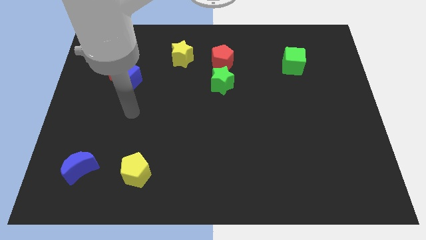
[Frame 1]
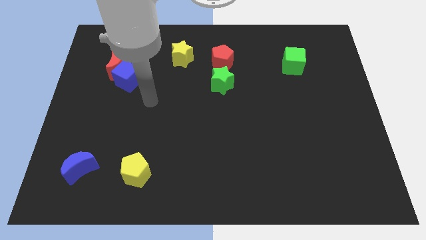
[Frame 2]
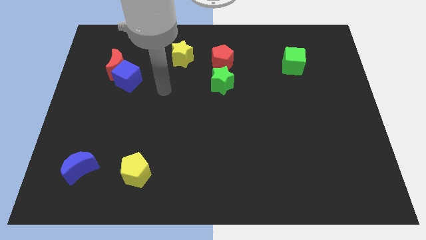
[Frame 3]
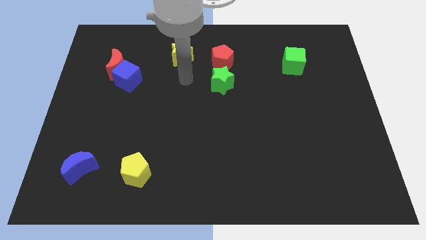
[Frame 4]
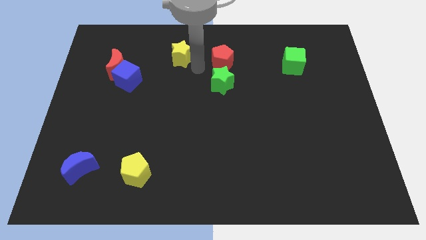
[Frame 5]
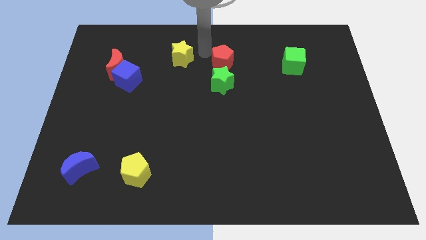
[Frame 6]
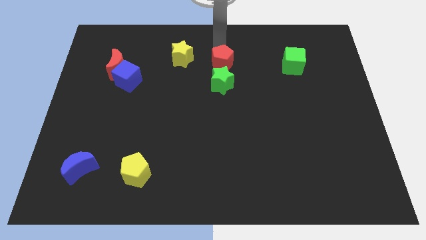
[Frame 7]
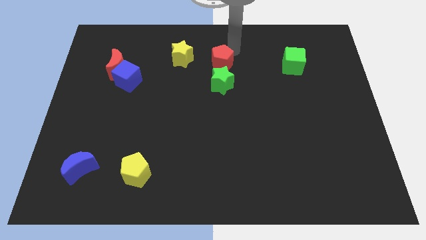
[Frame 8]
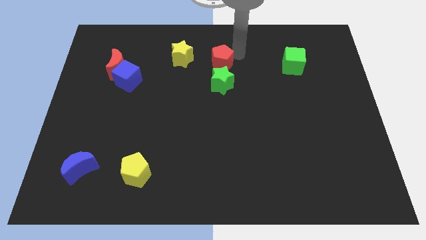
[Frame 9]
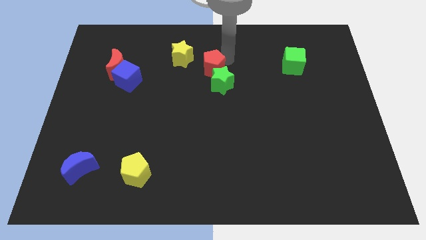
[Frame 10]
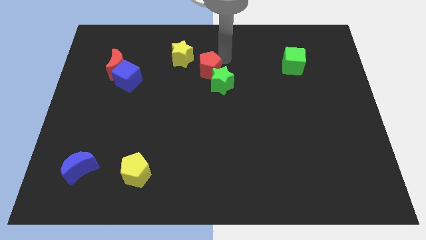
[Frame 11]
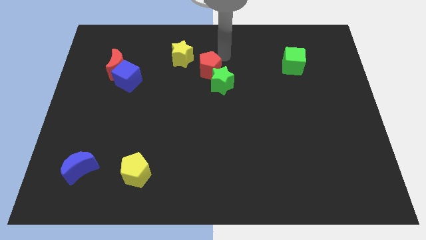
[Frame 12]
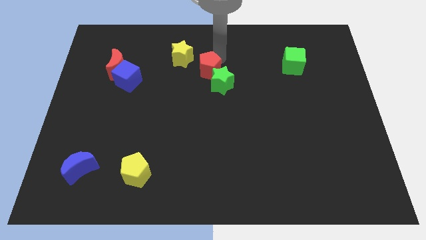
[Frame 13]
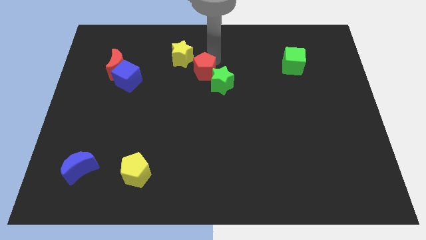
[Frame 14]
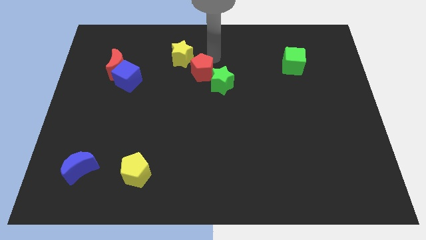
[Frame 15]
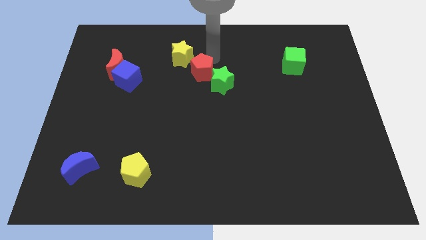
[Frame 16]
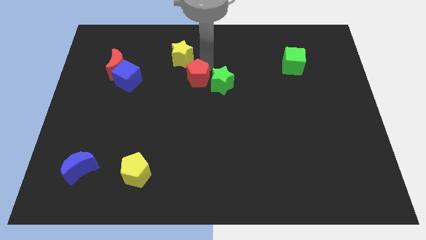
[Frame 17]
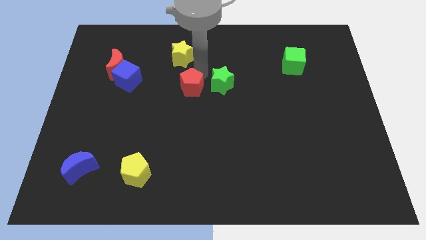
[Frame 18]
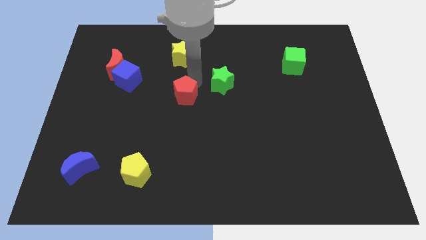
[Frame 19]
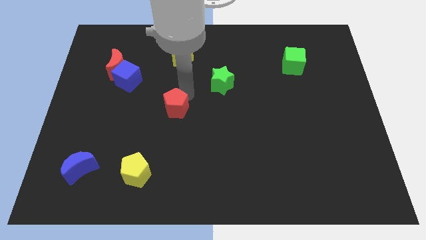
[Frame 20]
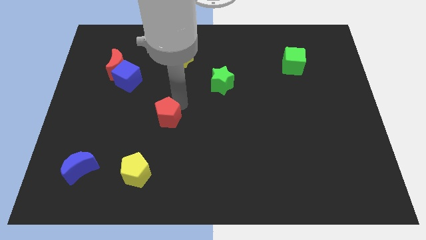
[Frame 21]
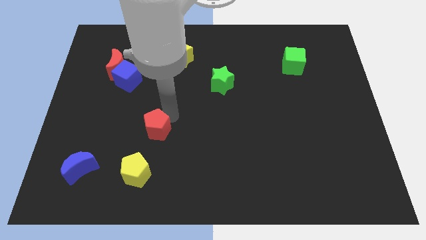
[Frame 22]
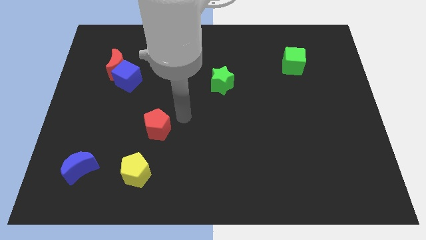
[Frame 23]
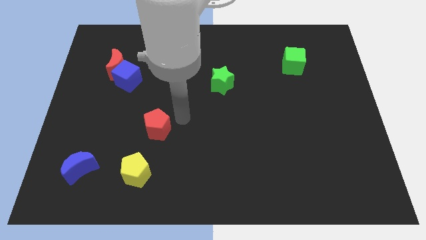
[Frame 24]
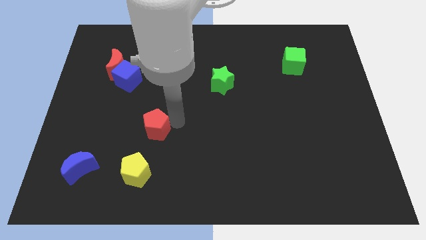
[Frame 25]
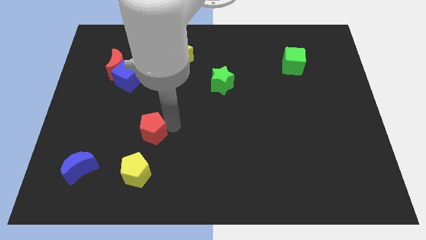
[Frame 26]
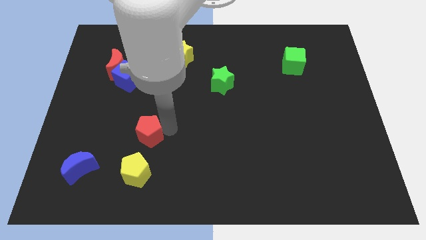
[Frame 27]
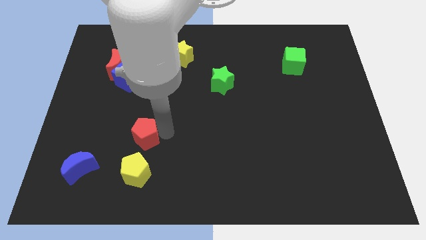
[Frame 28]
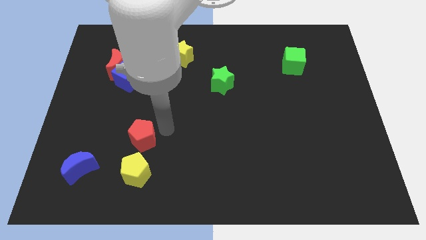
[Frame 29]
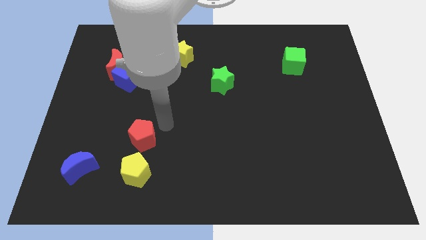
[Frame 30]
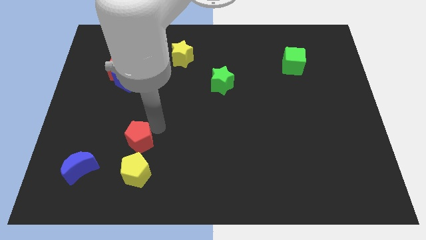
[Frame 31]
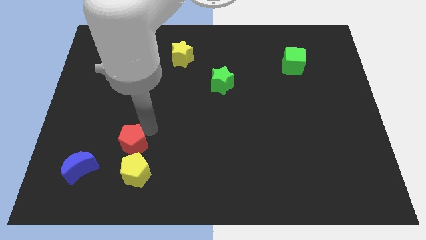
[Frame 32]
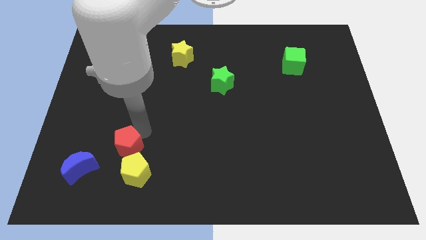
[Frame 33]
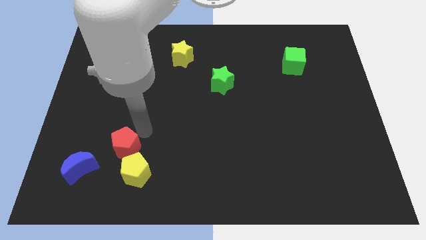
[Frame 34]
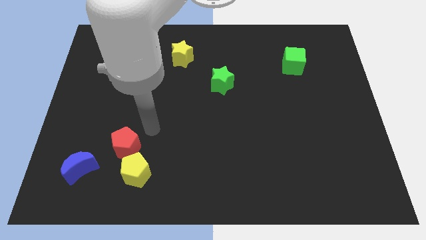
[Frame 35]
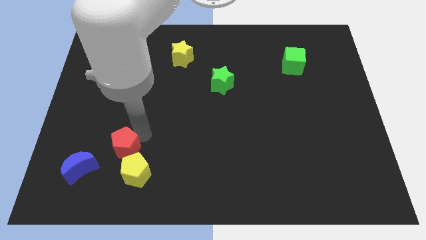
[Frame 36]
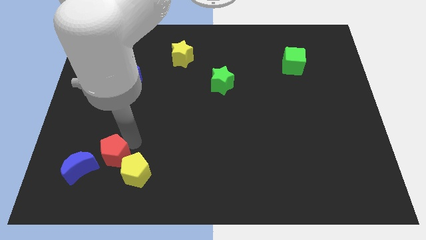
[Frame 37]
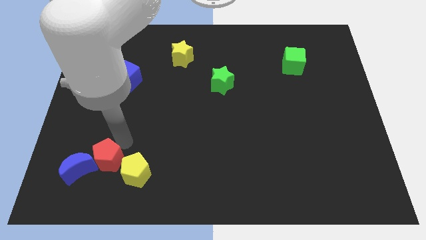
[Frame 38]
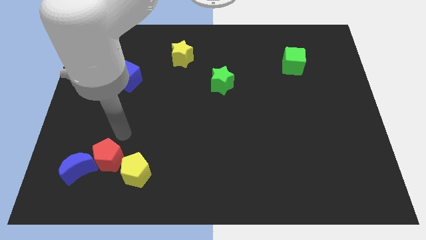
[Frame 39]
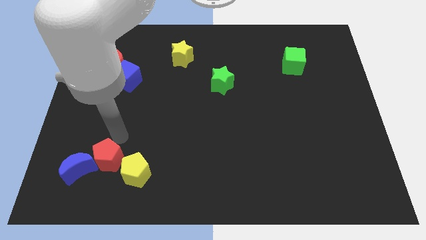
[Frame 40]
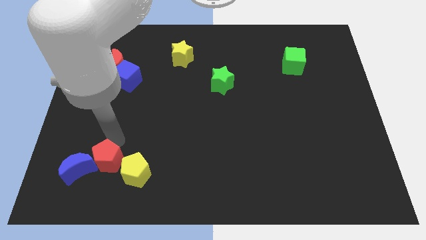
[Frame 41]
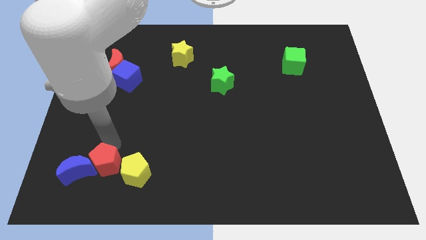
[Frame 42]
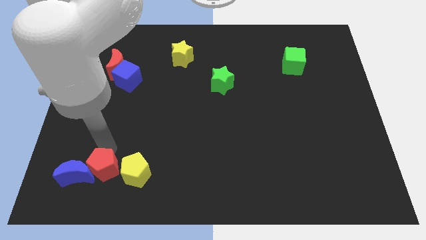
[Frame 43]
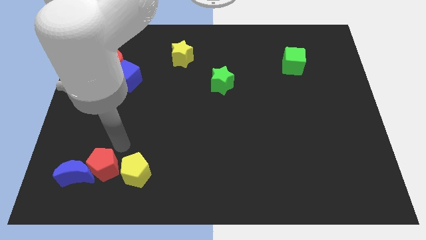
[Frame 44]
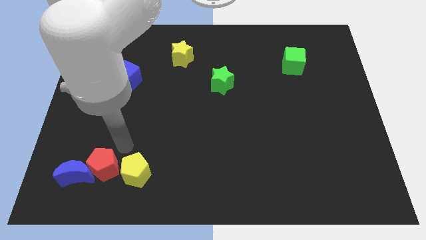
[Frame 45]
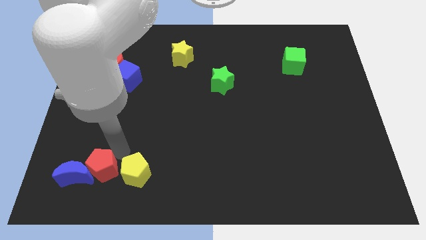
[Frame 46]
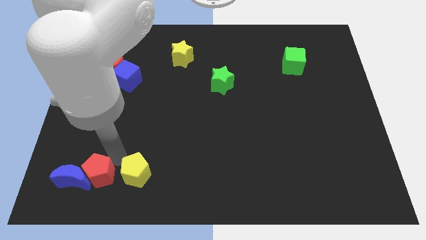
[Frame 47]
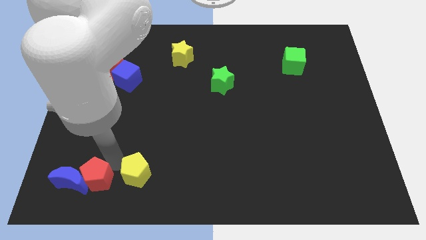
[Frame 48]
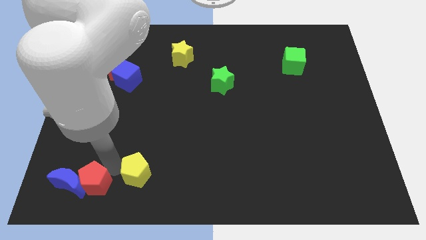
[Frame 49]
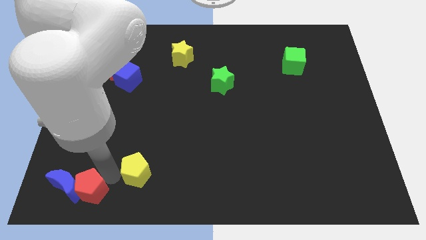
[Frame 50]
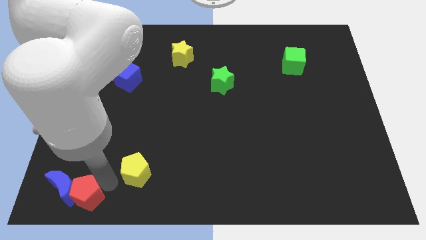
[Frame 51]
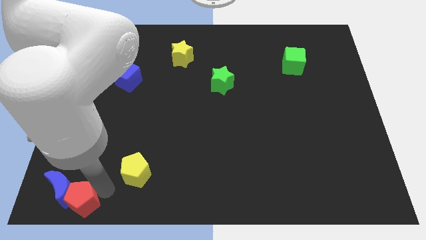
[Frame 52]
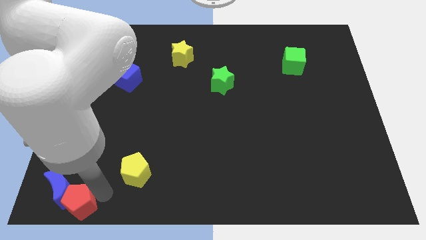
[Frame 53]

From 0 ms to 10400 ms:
move the red pentagon to the lower left corner

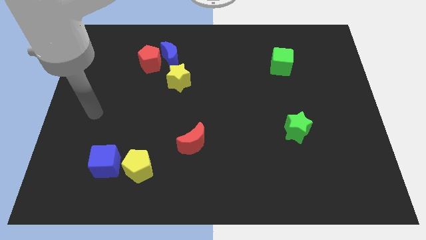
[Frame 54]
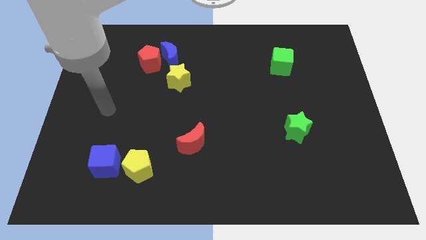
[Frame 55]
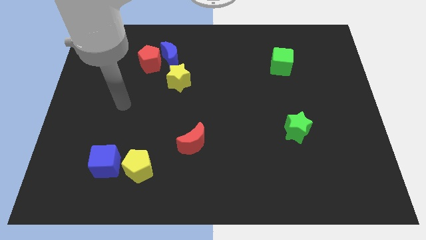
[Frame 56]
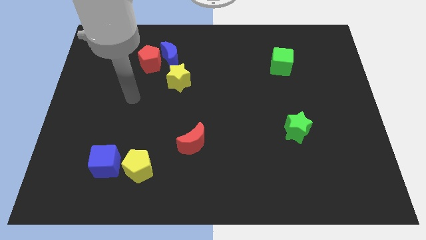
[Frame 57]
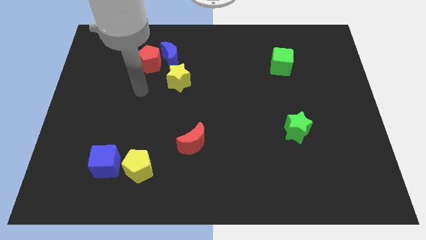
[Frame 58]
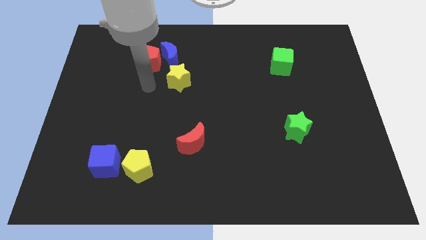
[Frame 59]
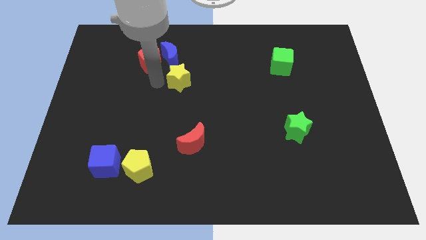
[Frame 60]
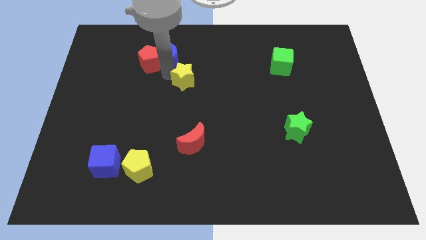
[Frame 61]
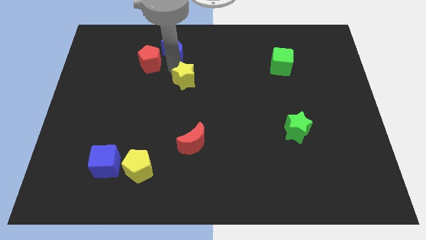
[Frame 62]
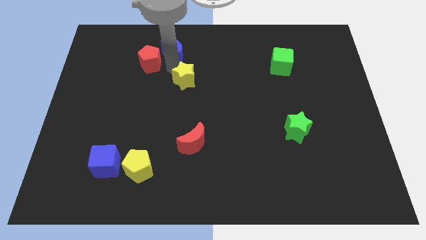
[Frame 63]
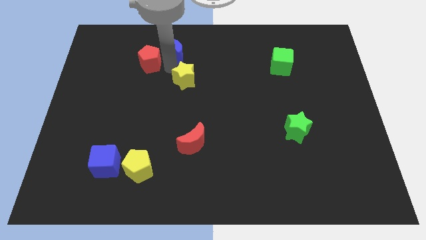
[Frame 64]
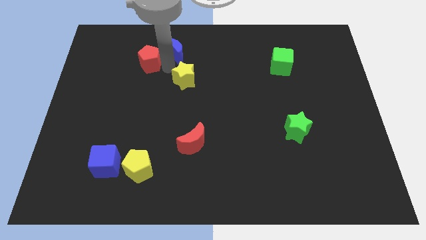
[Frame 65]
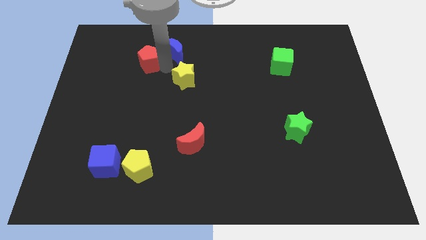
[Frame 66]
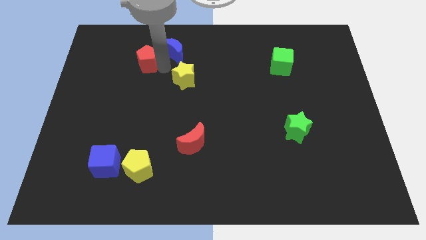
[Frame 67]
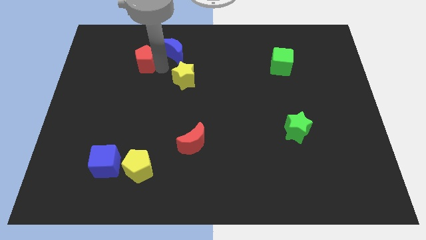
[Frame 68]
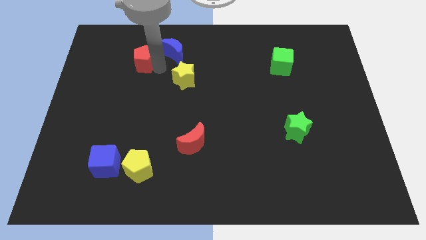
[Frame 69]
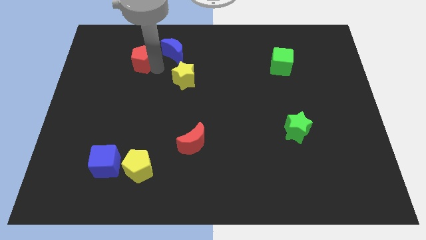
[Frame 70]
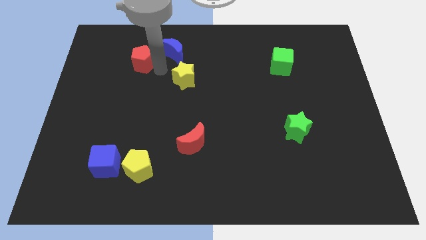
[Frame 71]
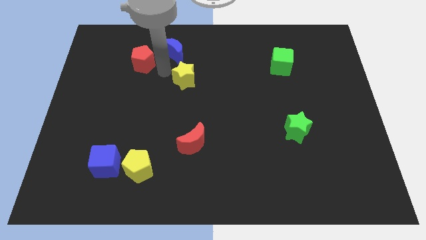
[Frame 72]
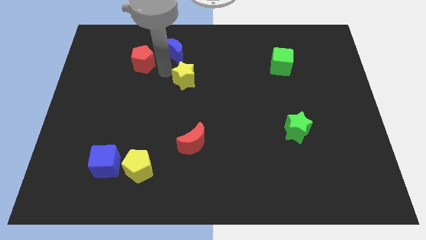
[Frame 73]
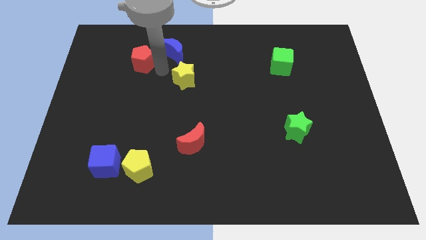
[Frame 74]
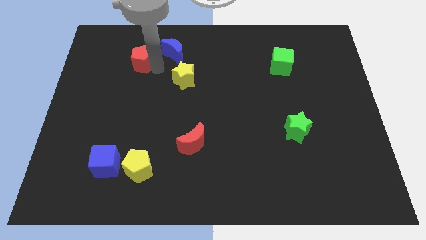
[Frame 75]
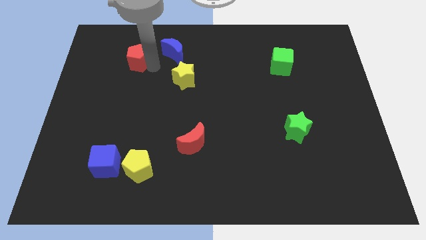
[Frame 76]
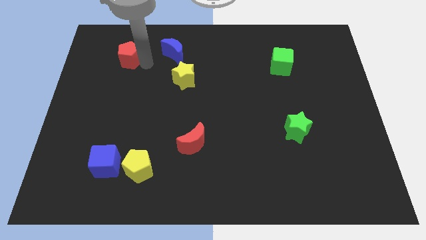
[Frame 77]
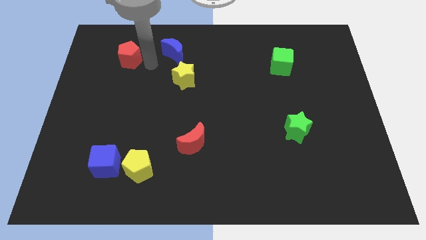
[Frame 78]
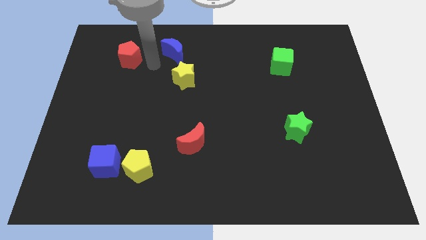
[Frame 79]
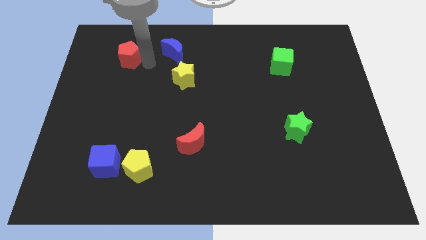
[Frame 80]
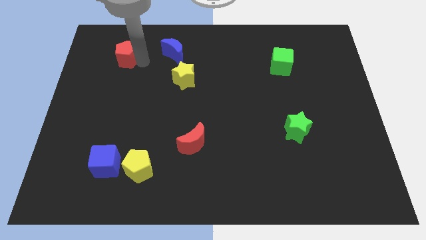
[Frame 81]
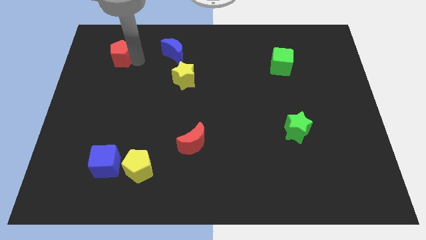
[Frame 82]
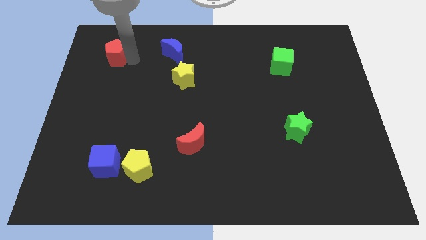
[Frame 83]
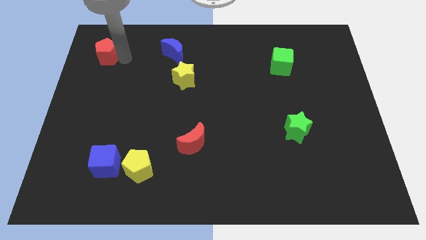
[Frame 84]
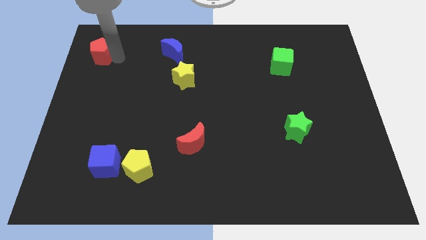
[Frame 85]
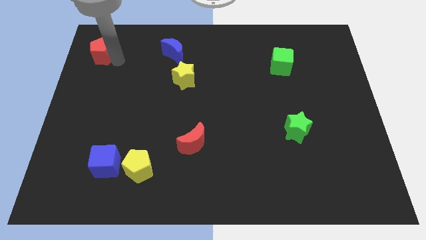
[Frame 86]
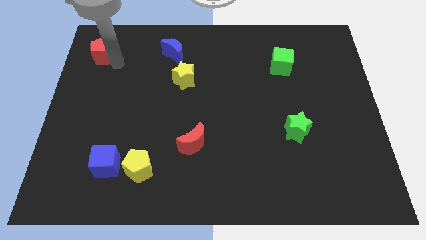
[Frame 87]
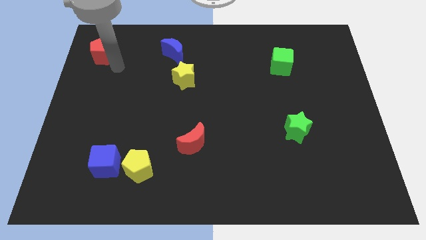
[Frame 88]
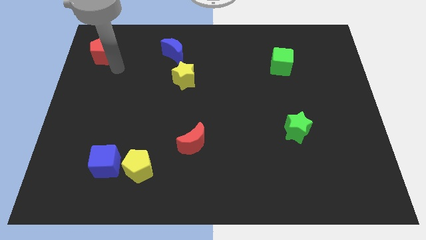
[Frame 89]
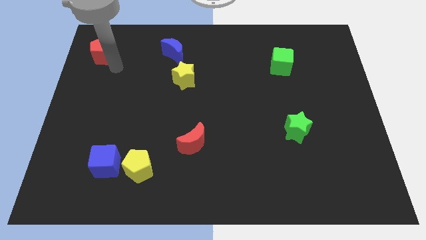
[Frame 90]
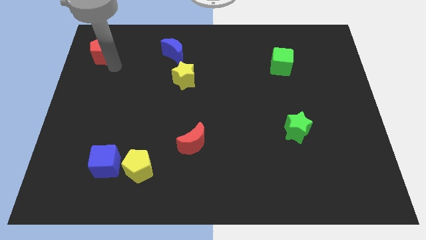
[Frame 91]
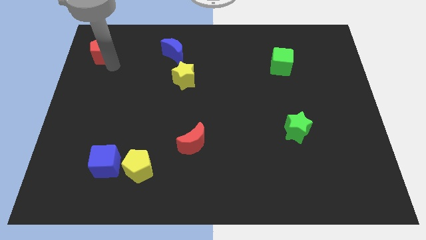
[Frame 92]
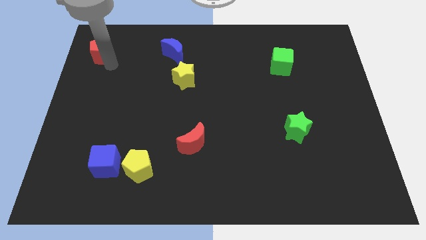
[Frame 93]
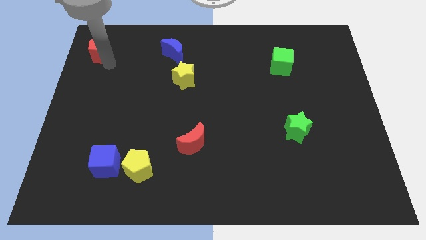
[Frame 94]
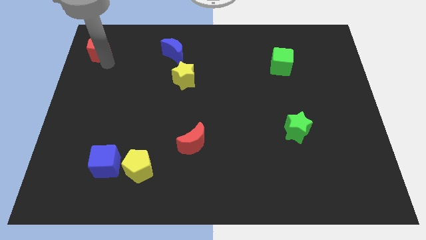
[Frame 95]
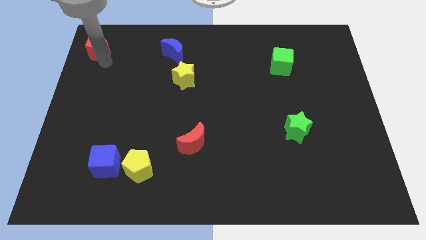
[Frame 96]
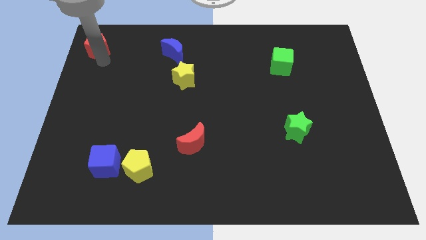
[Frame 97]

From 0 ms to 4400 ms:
push the red pentagon to the upper left corner
